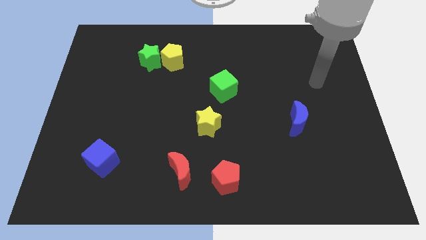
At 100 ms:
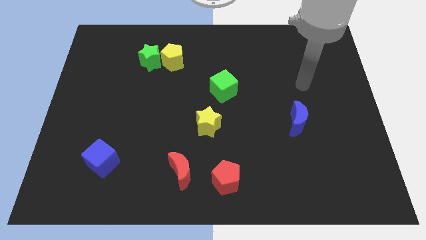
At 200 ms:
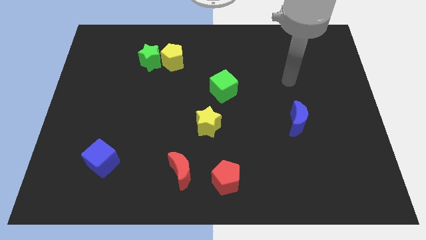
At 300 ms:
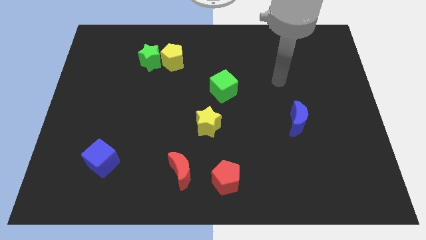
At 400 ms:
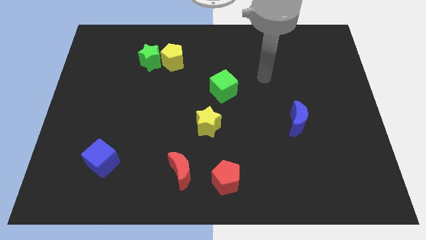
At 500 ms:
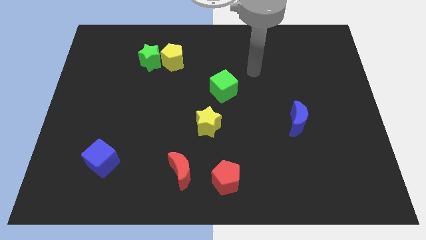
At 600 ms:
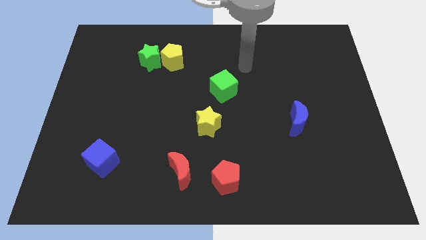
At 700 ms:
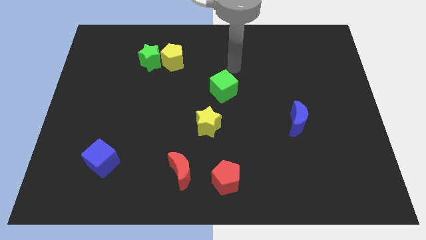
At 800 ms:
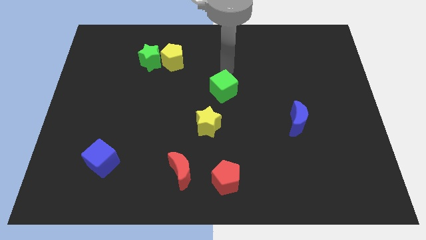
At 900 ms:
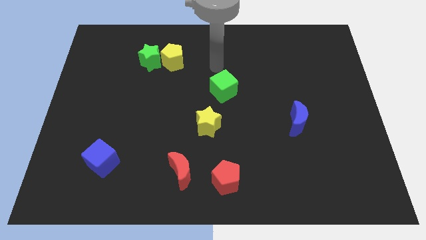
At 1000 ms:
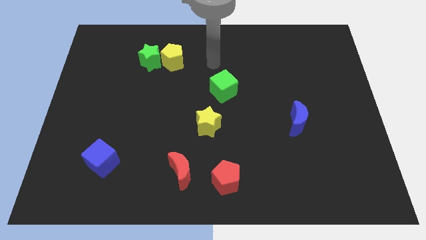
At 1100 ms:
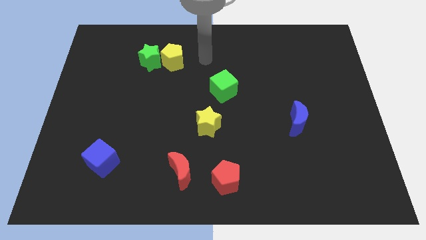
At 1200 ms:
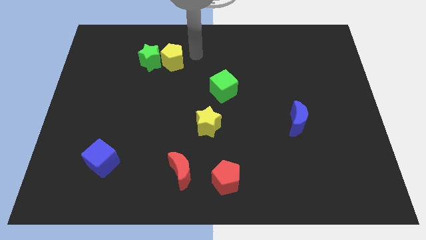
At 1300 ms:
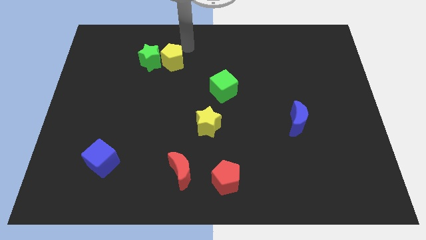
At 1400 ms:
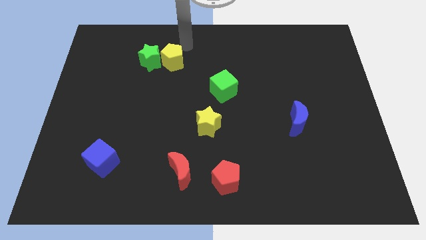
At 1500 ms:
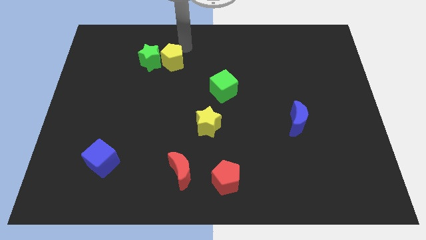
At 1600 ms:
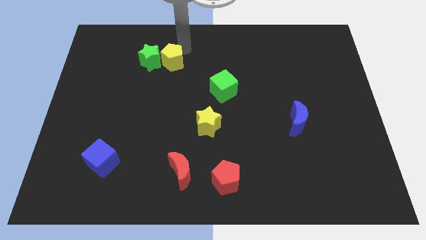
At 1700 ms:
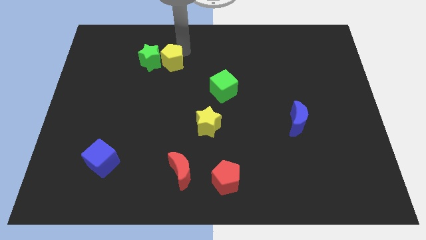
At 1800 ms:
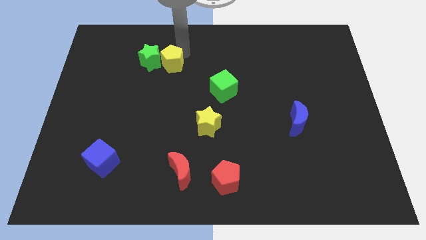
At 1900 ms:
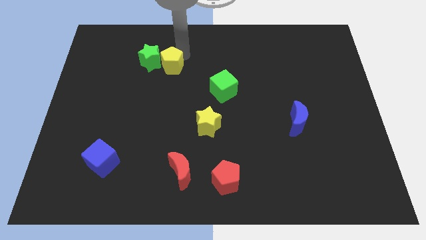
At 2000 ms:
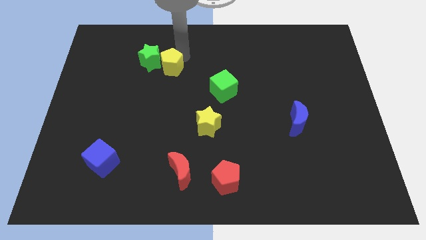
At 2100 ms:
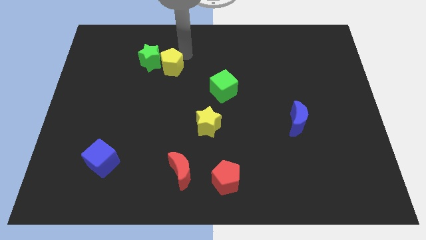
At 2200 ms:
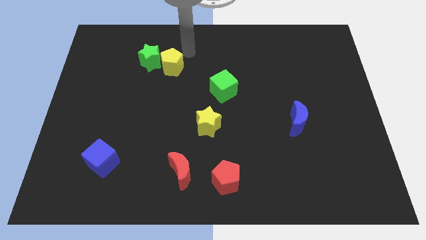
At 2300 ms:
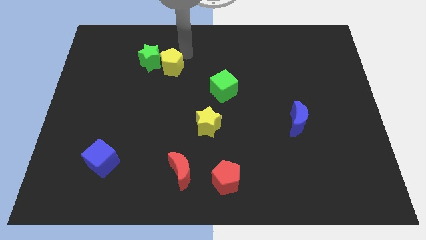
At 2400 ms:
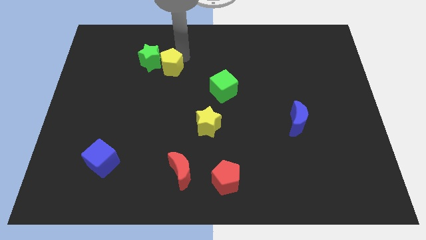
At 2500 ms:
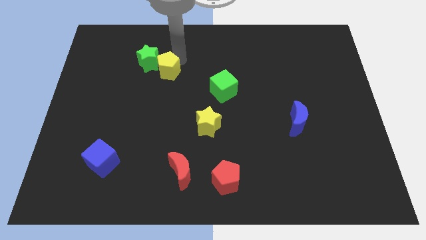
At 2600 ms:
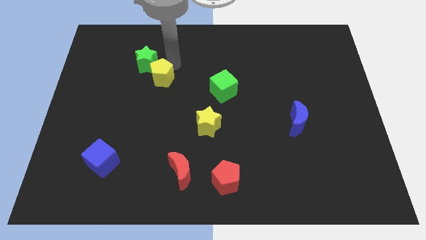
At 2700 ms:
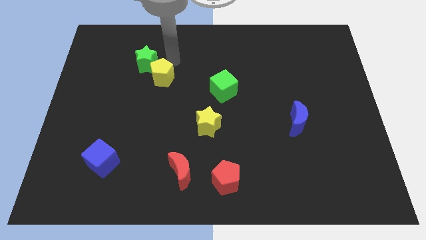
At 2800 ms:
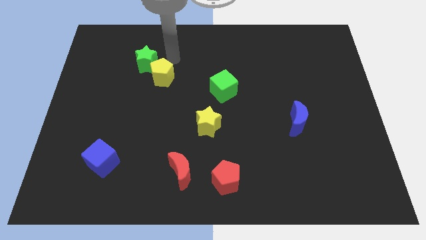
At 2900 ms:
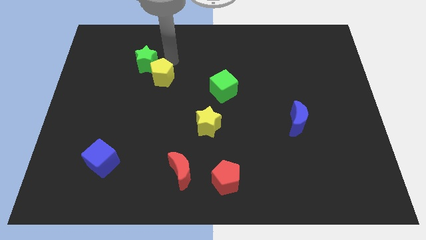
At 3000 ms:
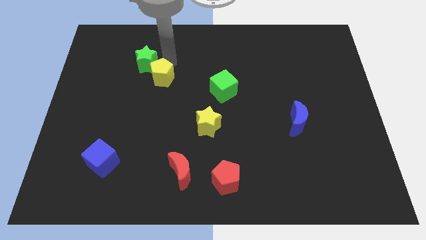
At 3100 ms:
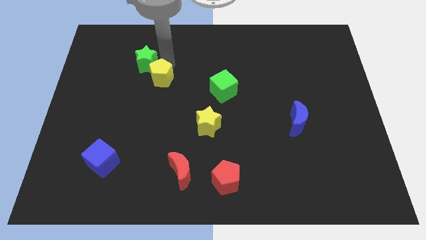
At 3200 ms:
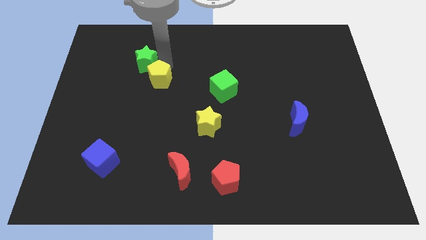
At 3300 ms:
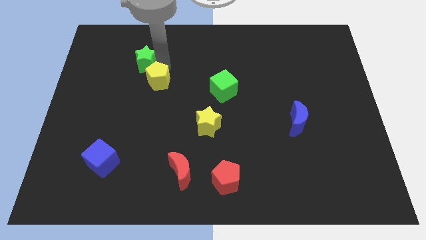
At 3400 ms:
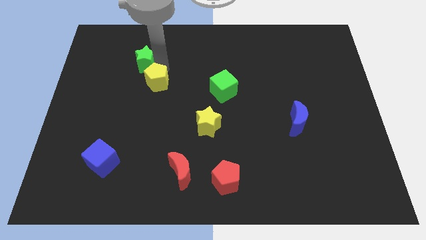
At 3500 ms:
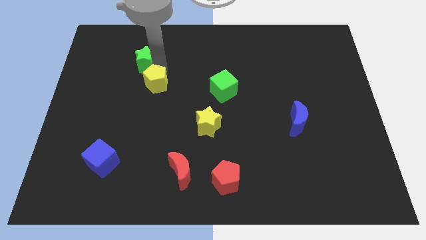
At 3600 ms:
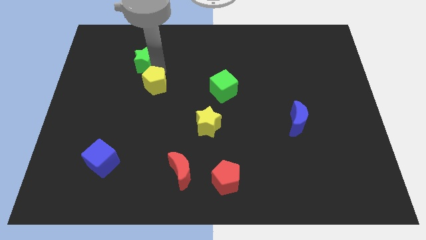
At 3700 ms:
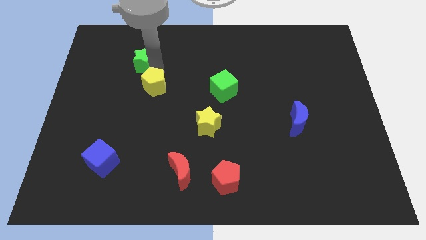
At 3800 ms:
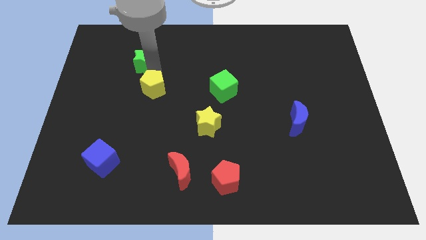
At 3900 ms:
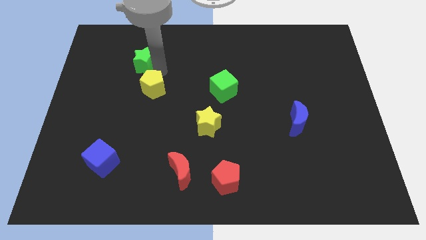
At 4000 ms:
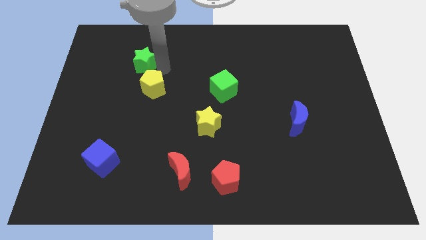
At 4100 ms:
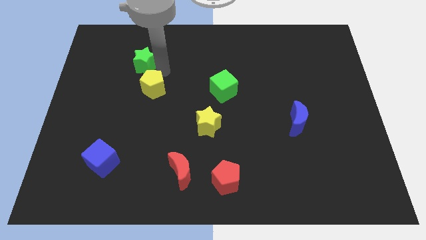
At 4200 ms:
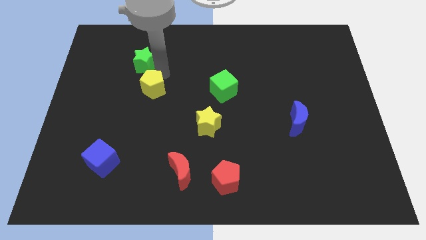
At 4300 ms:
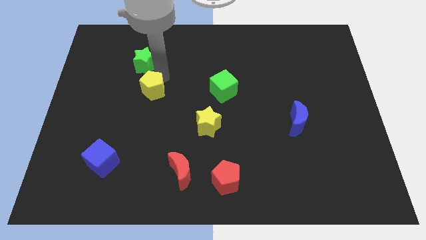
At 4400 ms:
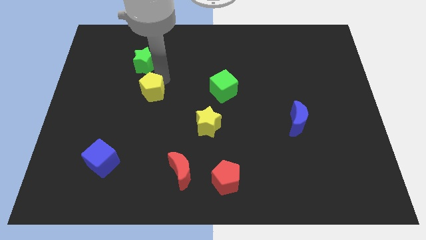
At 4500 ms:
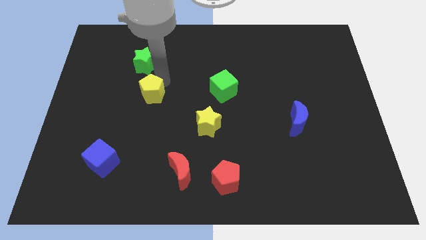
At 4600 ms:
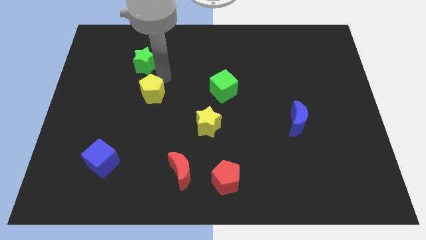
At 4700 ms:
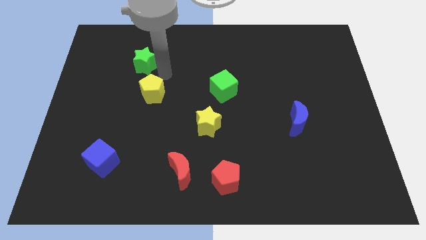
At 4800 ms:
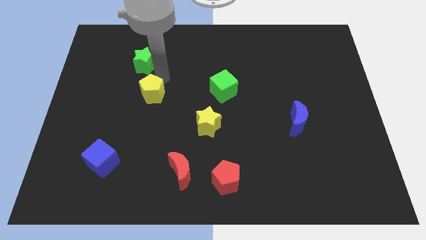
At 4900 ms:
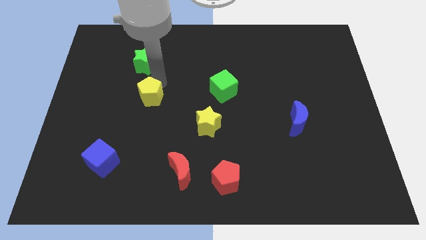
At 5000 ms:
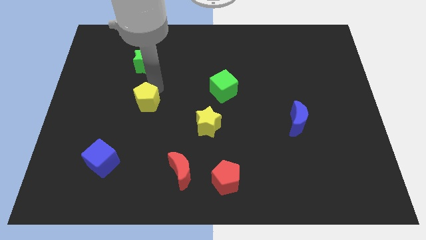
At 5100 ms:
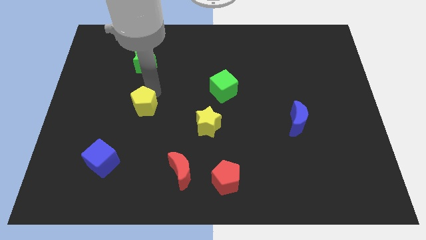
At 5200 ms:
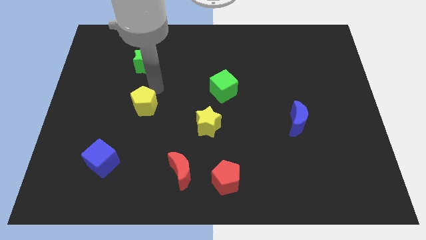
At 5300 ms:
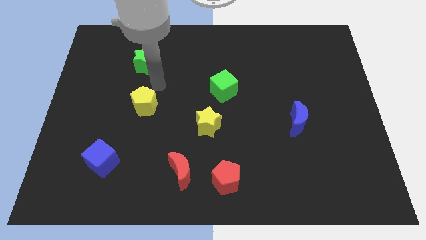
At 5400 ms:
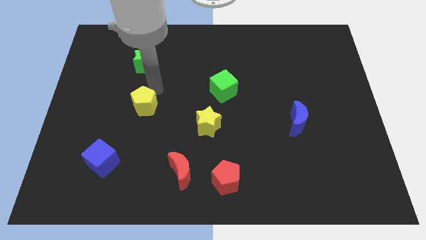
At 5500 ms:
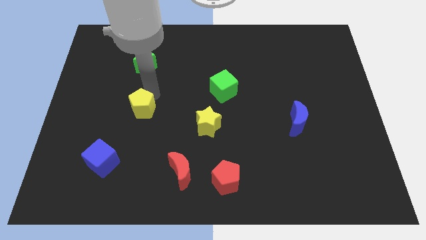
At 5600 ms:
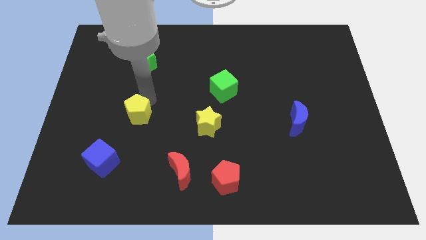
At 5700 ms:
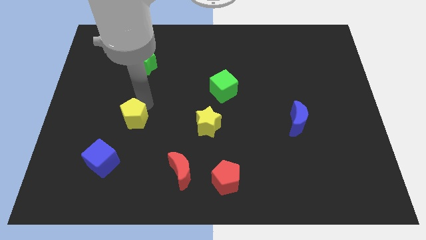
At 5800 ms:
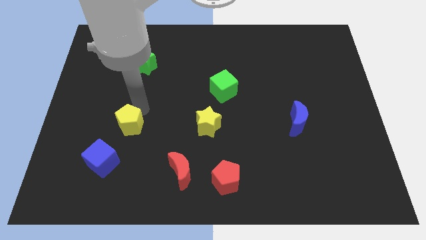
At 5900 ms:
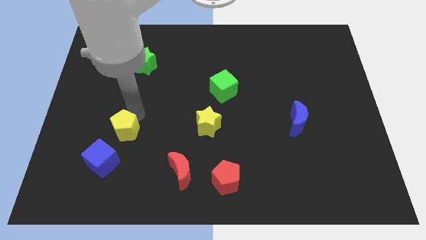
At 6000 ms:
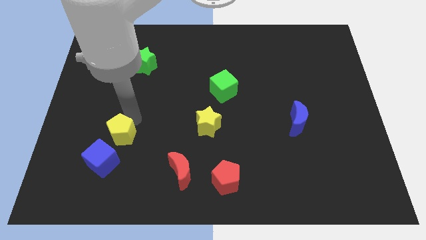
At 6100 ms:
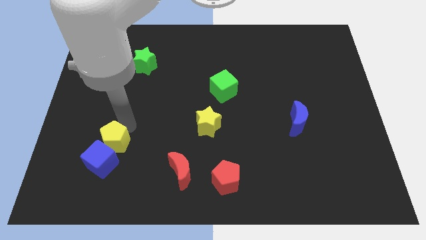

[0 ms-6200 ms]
move the yellow pentagon to the blue cube

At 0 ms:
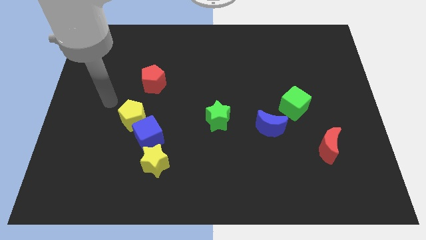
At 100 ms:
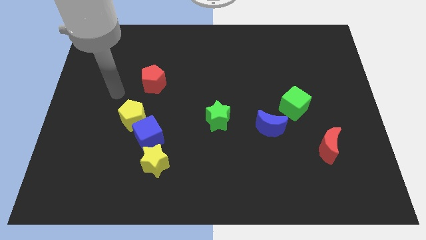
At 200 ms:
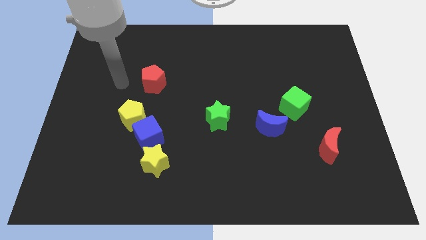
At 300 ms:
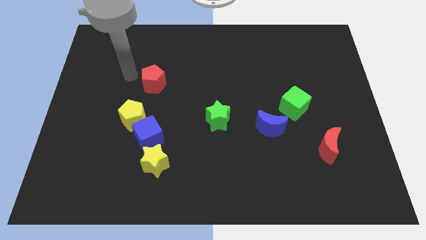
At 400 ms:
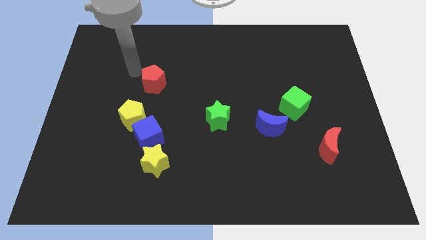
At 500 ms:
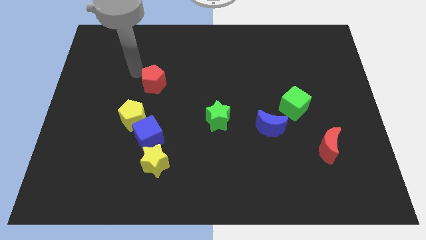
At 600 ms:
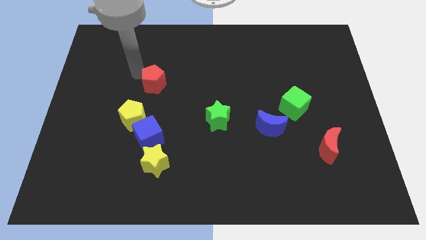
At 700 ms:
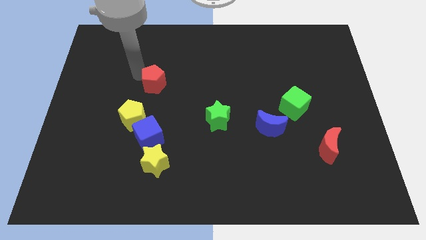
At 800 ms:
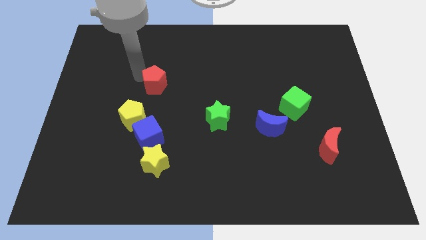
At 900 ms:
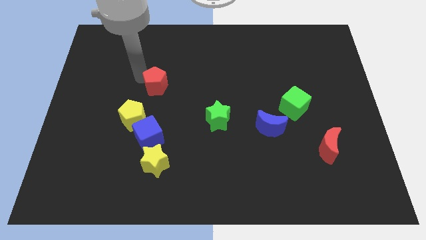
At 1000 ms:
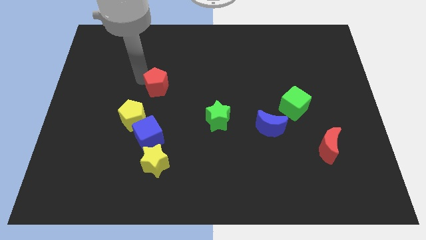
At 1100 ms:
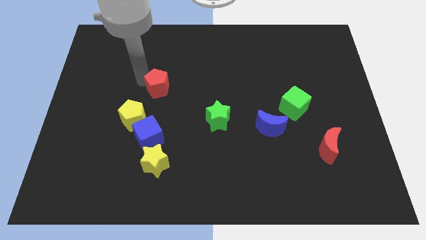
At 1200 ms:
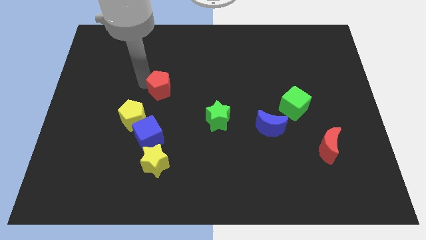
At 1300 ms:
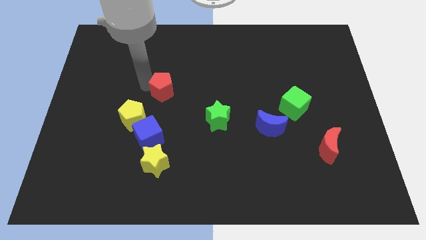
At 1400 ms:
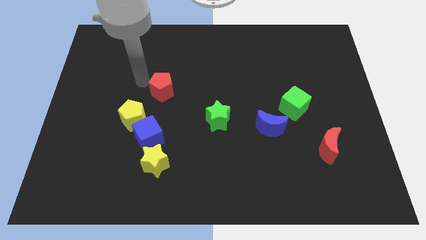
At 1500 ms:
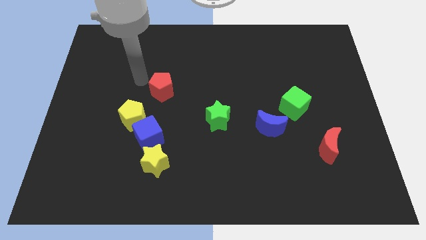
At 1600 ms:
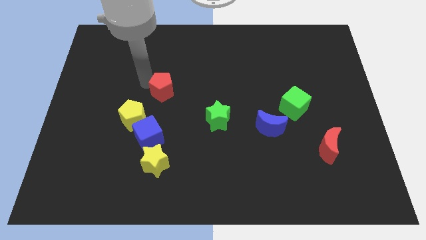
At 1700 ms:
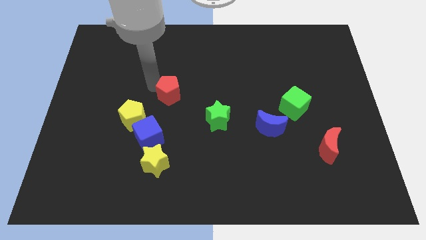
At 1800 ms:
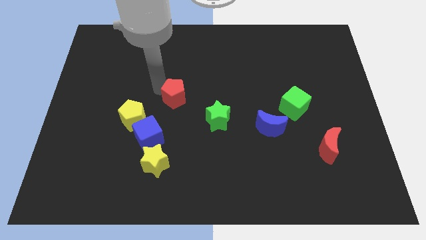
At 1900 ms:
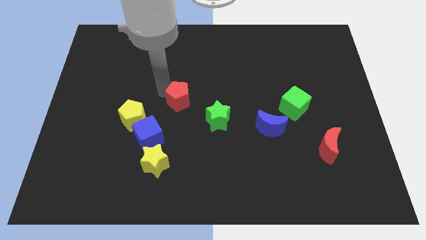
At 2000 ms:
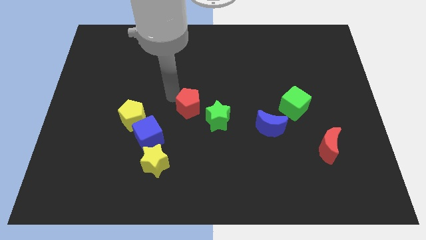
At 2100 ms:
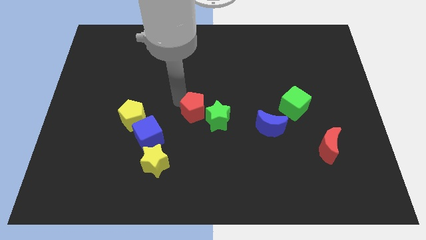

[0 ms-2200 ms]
put the red pentagon next to the green star
